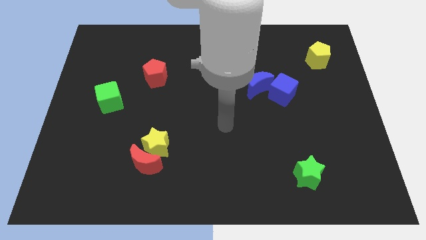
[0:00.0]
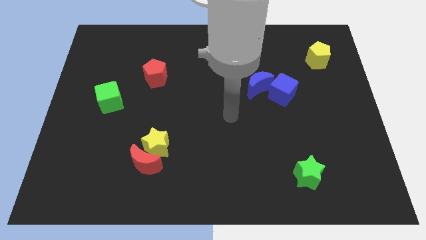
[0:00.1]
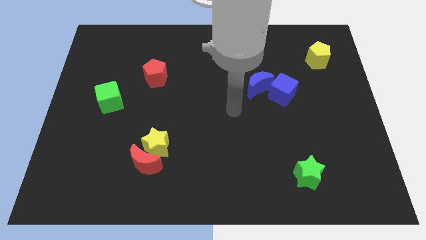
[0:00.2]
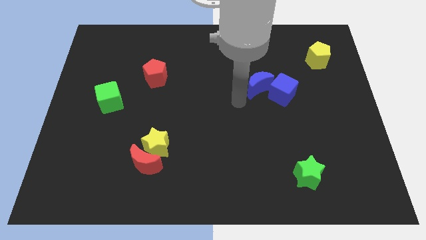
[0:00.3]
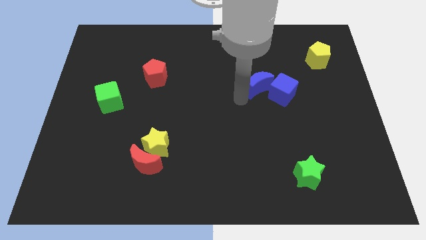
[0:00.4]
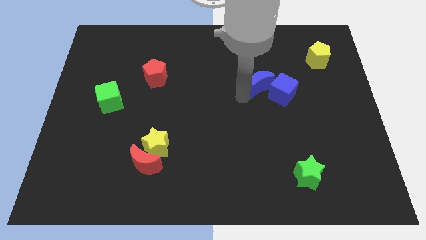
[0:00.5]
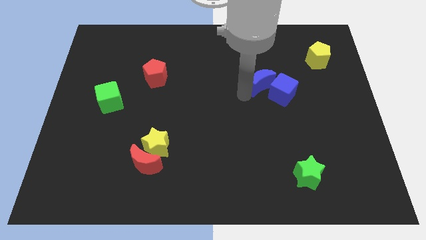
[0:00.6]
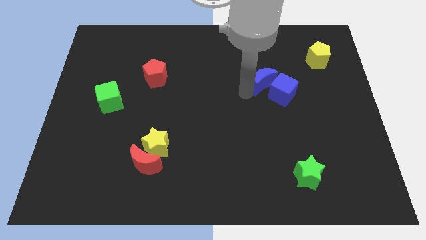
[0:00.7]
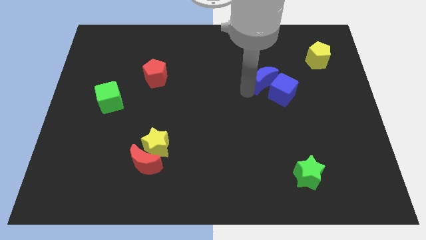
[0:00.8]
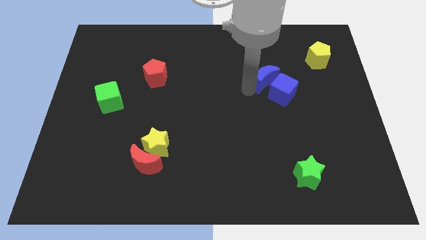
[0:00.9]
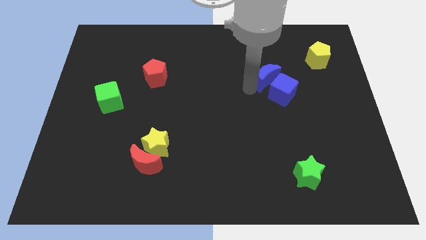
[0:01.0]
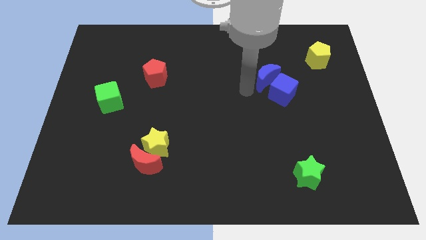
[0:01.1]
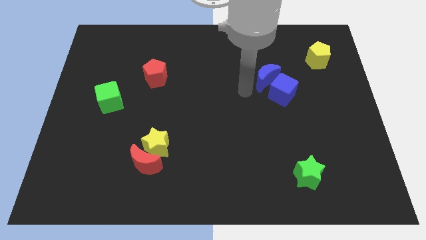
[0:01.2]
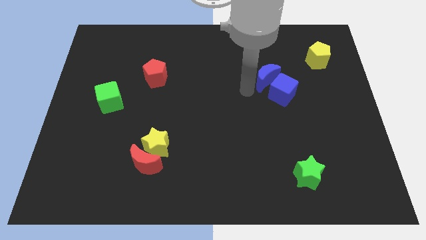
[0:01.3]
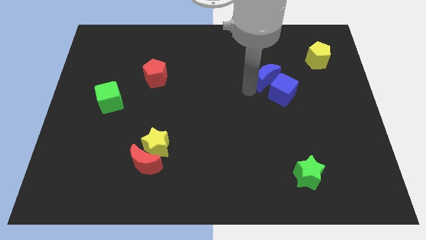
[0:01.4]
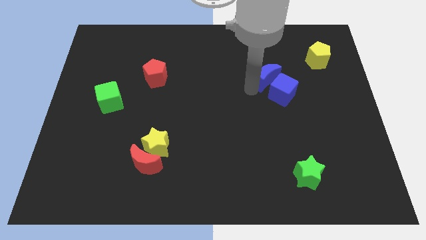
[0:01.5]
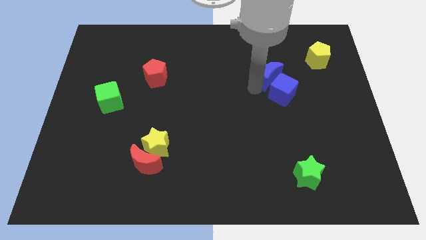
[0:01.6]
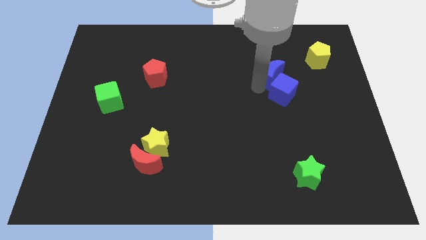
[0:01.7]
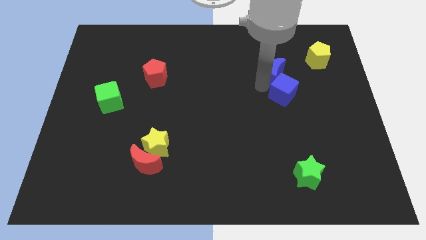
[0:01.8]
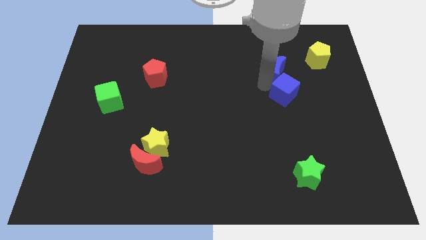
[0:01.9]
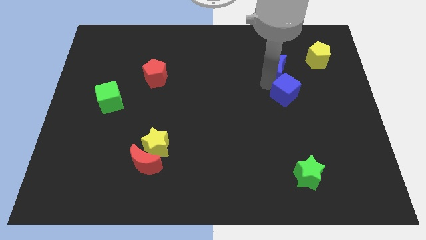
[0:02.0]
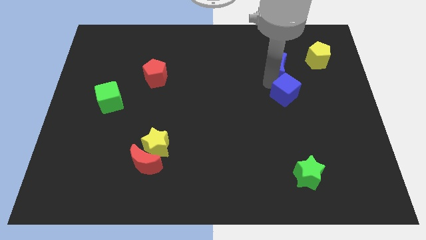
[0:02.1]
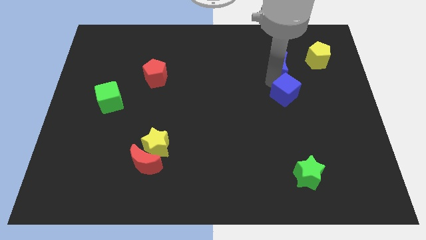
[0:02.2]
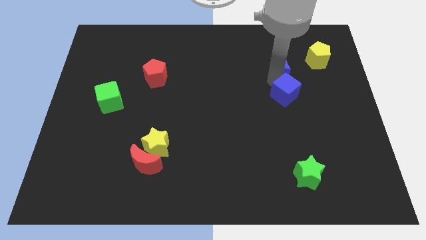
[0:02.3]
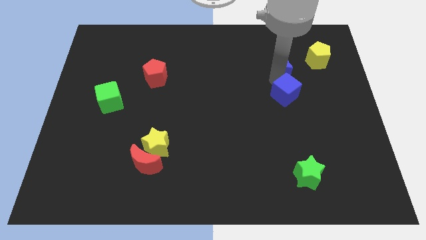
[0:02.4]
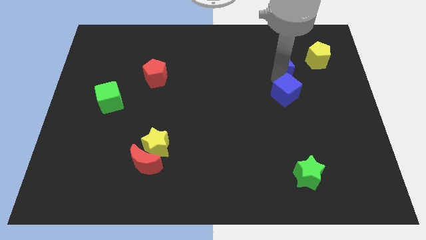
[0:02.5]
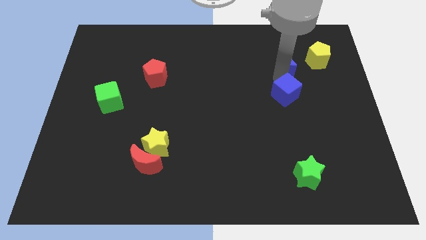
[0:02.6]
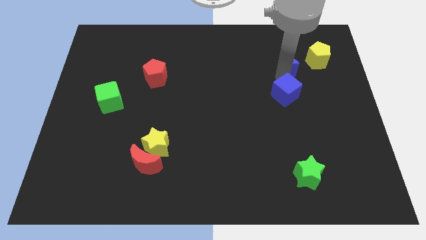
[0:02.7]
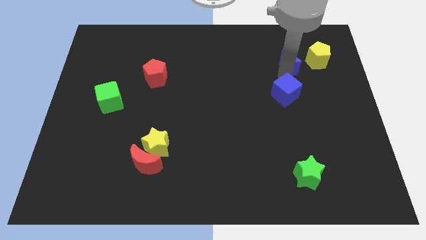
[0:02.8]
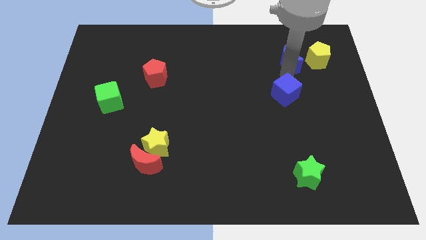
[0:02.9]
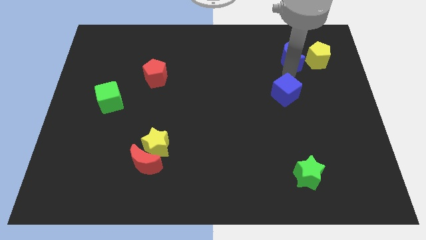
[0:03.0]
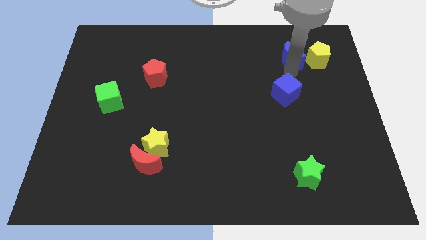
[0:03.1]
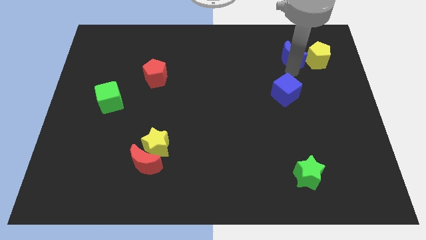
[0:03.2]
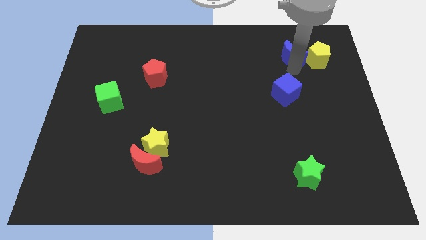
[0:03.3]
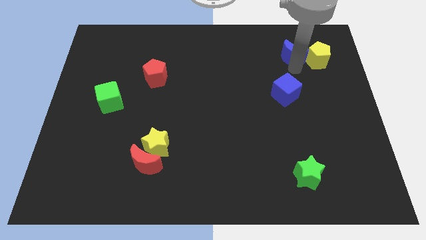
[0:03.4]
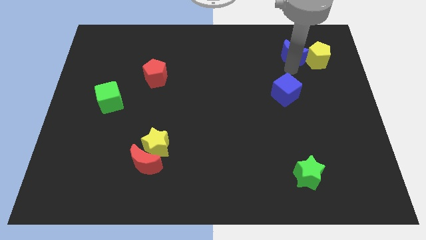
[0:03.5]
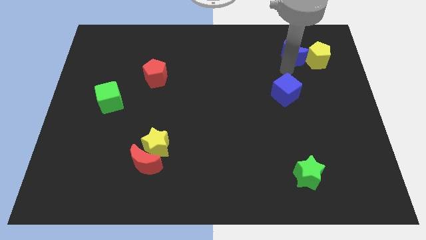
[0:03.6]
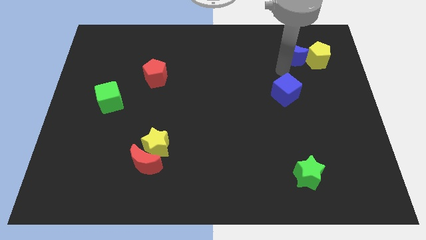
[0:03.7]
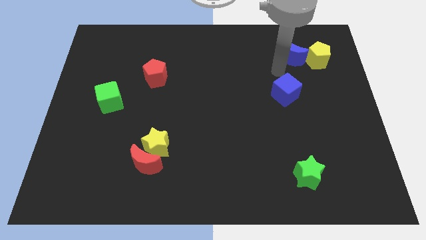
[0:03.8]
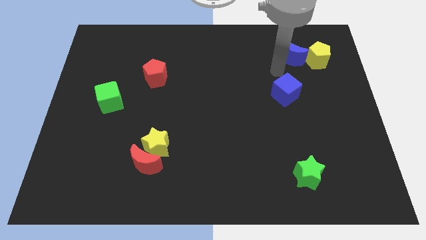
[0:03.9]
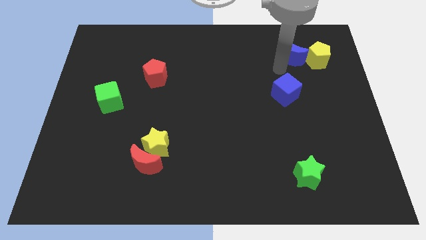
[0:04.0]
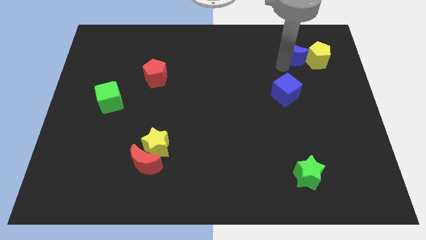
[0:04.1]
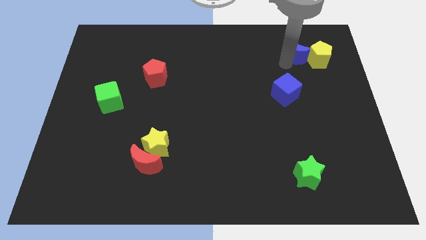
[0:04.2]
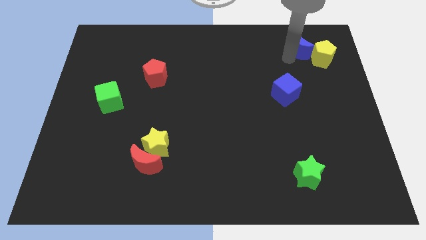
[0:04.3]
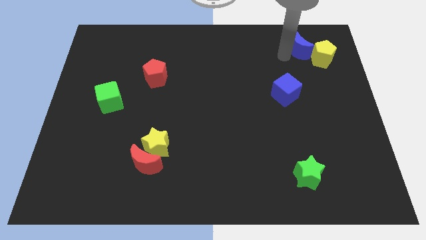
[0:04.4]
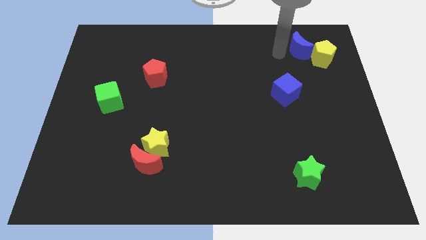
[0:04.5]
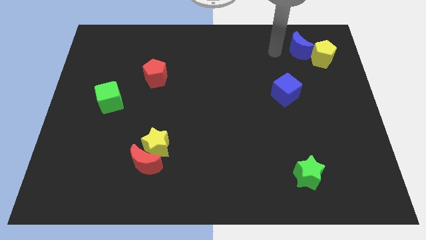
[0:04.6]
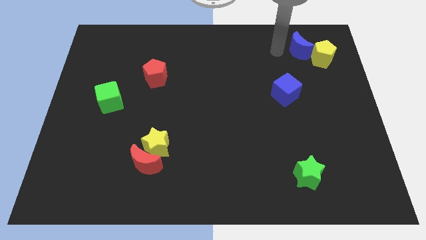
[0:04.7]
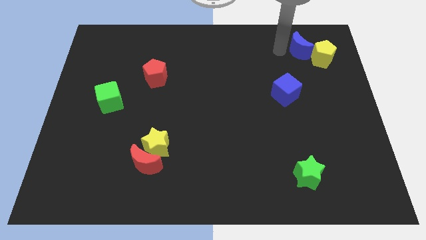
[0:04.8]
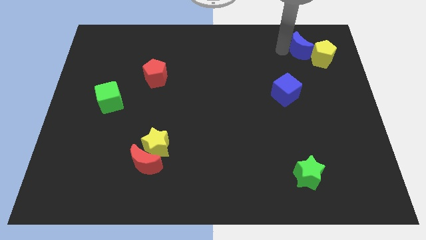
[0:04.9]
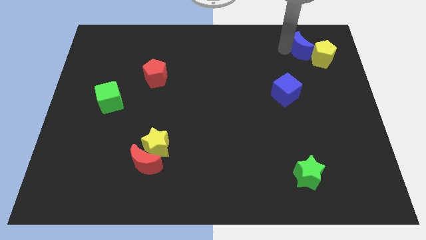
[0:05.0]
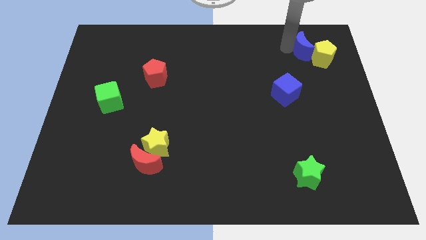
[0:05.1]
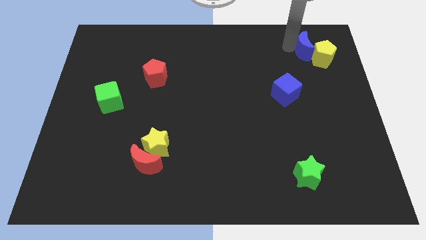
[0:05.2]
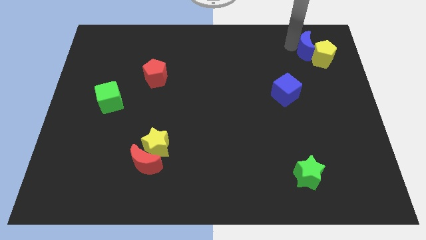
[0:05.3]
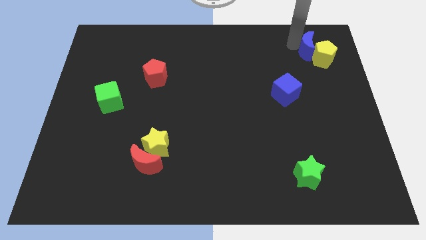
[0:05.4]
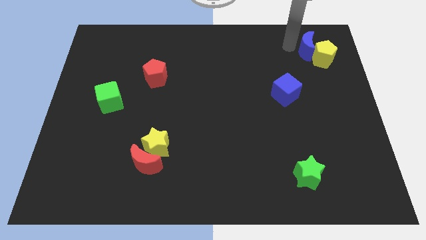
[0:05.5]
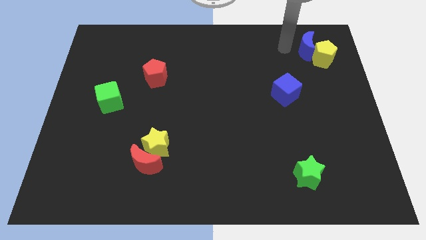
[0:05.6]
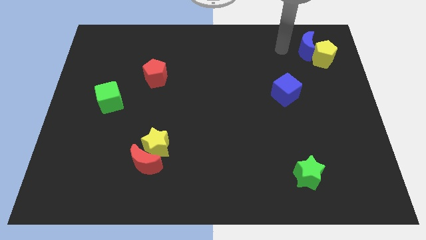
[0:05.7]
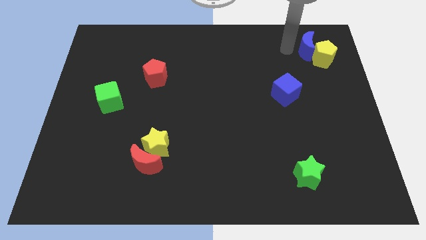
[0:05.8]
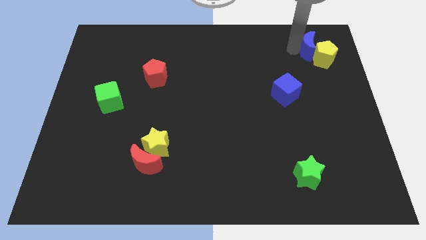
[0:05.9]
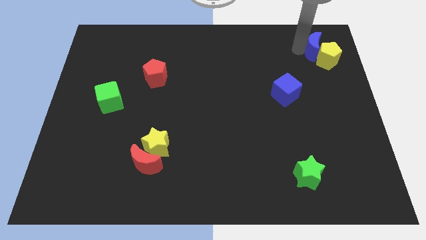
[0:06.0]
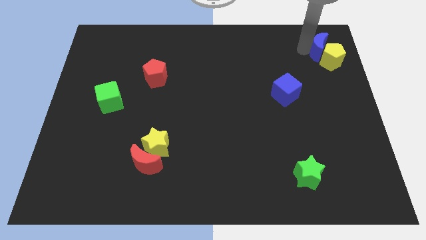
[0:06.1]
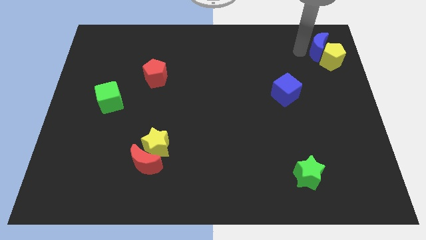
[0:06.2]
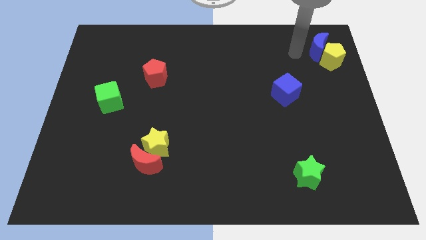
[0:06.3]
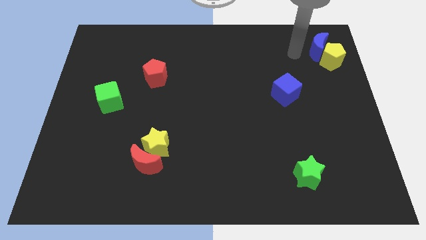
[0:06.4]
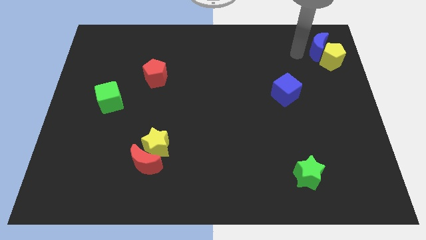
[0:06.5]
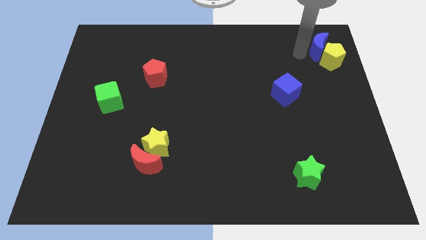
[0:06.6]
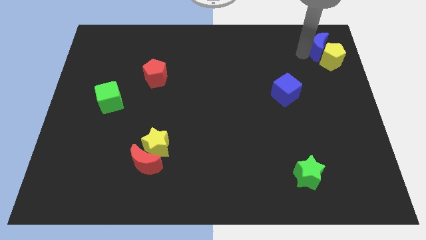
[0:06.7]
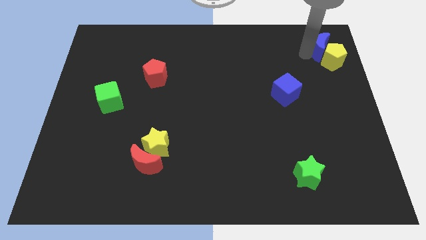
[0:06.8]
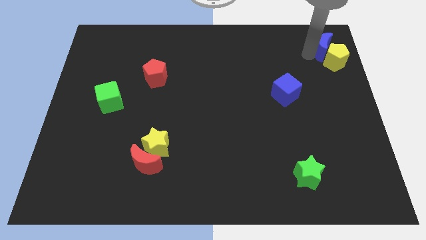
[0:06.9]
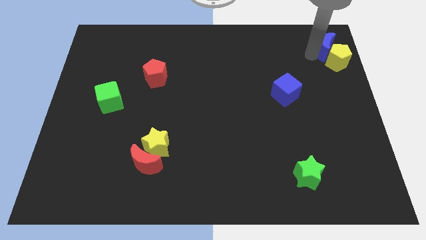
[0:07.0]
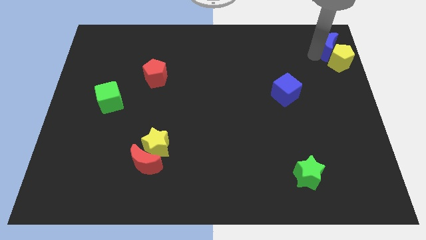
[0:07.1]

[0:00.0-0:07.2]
push the blue moon to the top right
